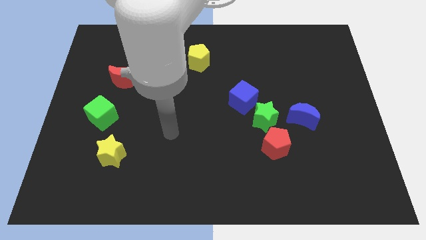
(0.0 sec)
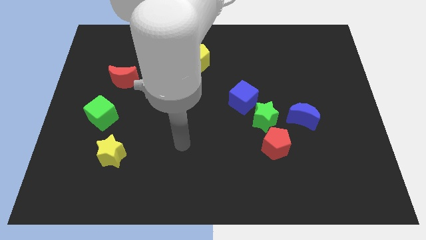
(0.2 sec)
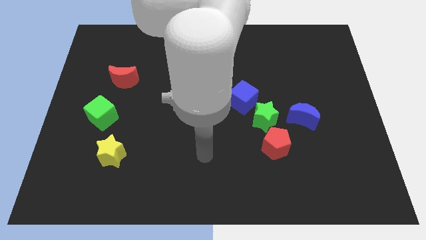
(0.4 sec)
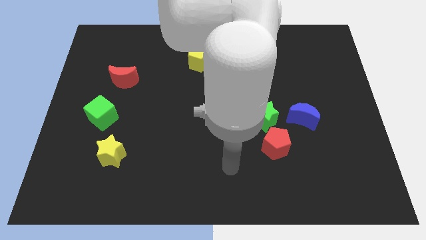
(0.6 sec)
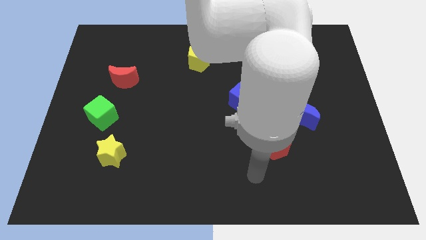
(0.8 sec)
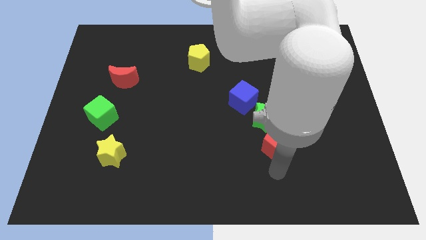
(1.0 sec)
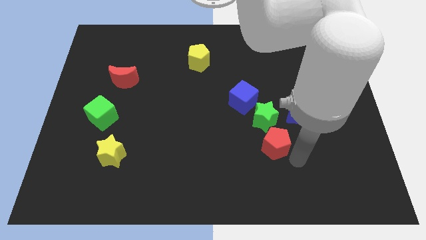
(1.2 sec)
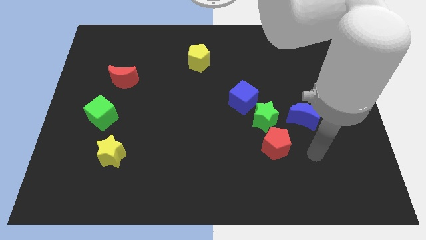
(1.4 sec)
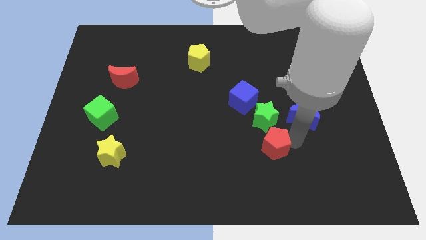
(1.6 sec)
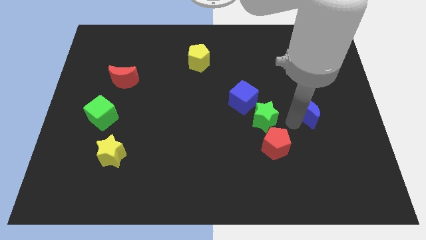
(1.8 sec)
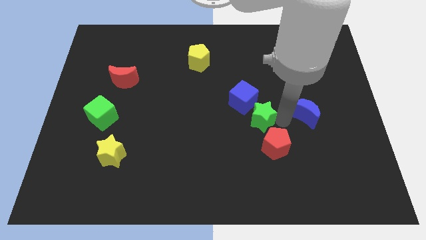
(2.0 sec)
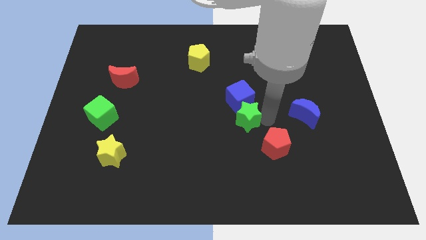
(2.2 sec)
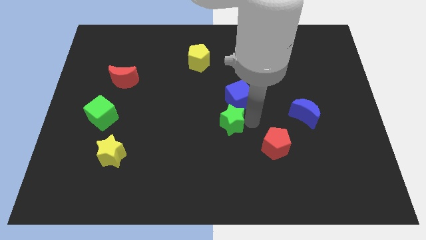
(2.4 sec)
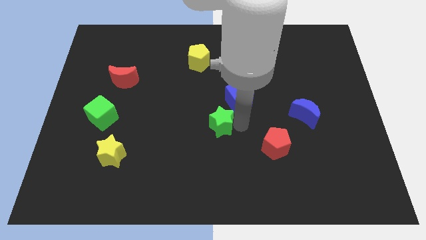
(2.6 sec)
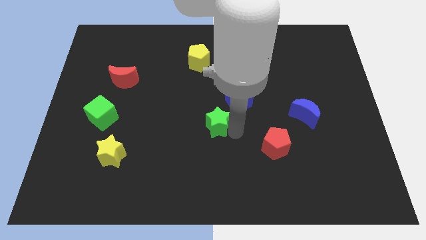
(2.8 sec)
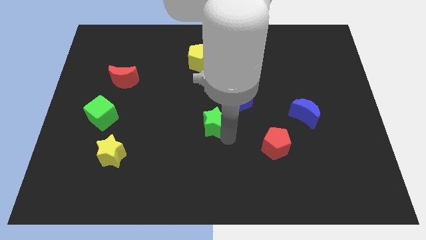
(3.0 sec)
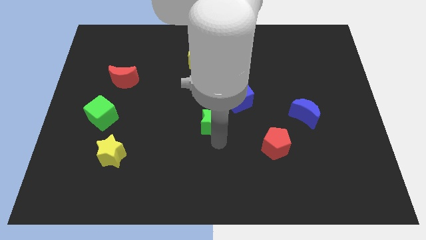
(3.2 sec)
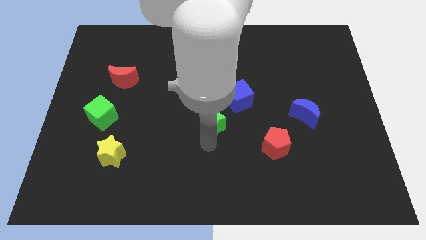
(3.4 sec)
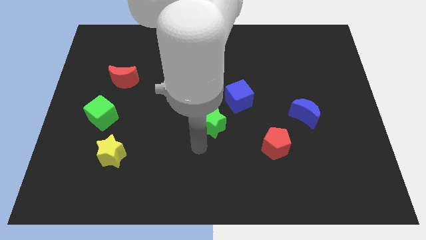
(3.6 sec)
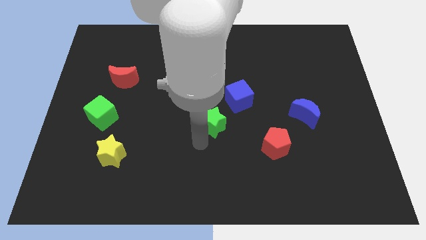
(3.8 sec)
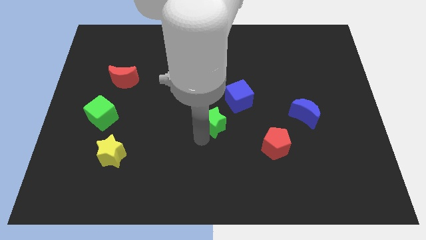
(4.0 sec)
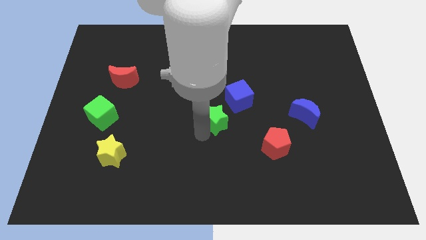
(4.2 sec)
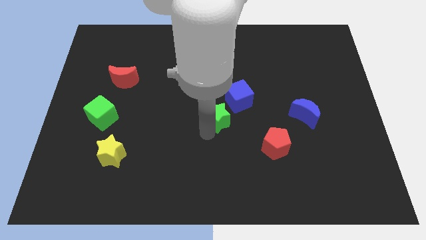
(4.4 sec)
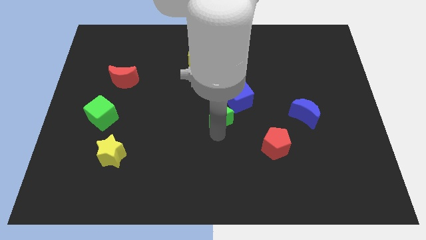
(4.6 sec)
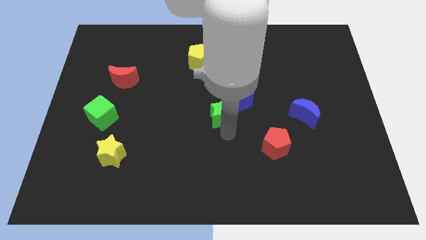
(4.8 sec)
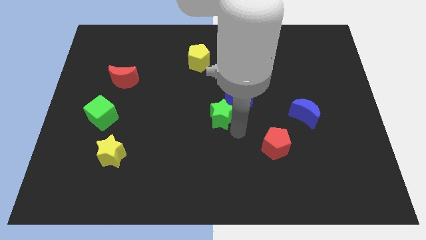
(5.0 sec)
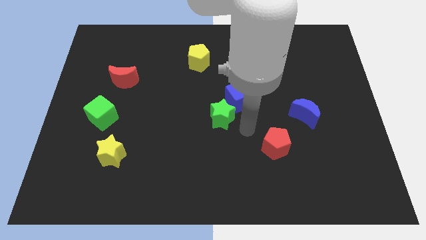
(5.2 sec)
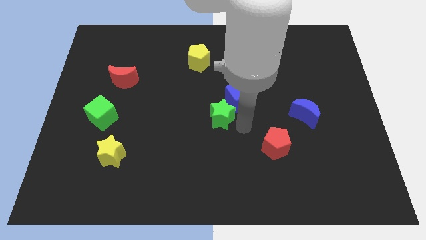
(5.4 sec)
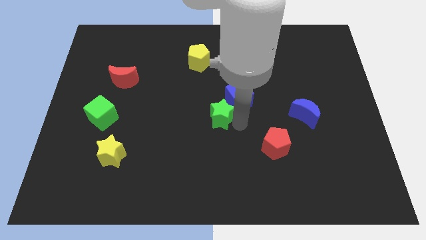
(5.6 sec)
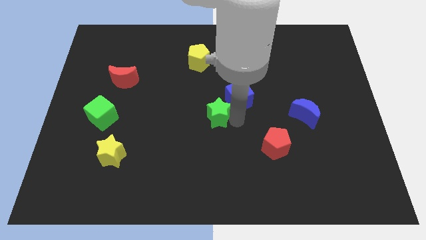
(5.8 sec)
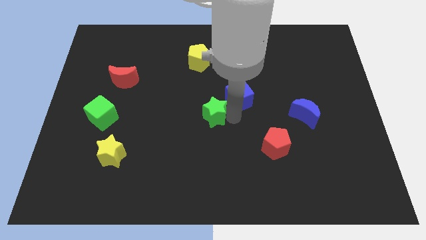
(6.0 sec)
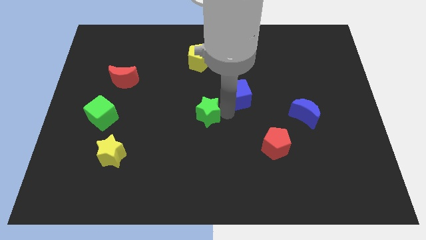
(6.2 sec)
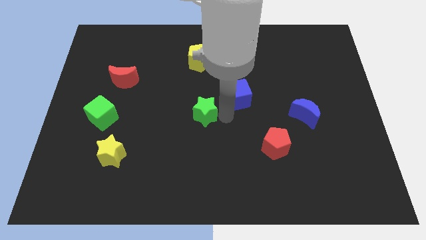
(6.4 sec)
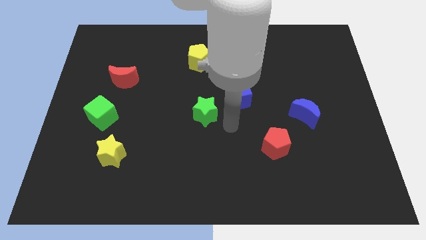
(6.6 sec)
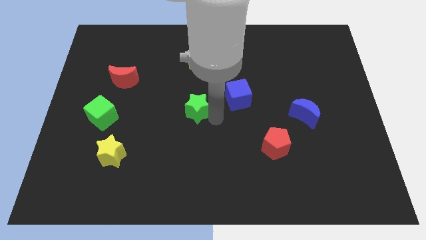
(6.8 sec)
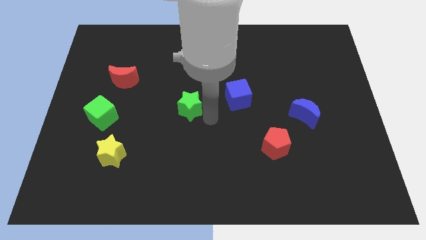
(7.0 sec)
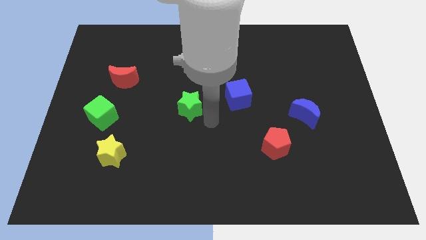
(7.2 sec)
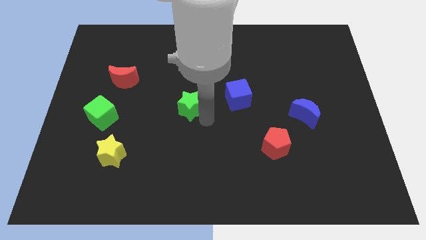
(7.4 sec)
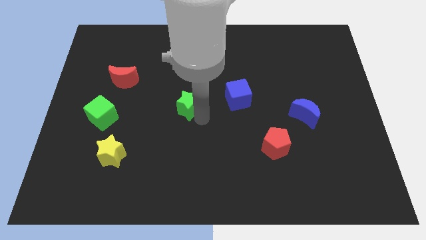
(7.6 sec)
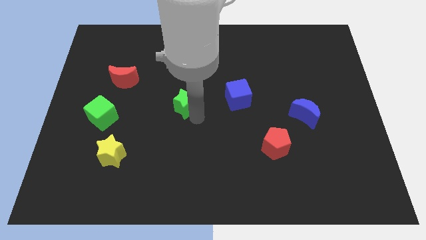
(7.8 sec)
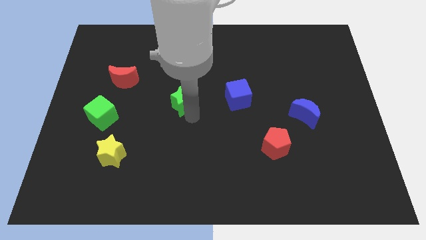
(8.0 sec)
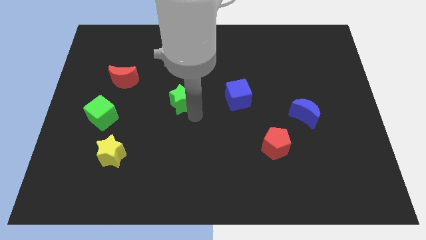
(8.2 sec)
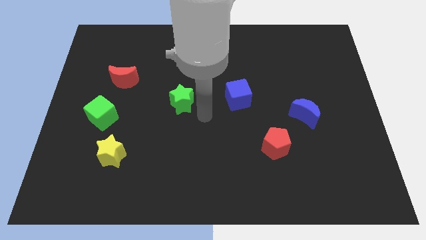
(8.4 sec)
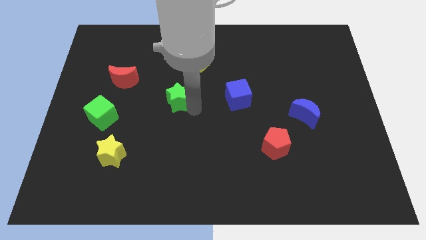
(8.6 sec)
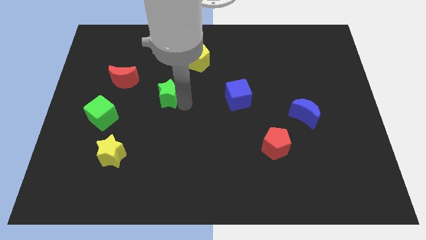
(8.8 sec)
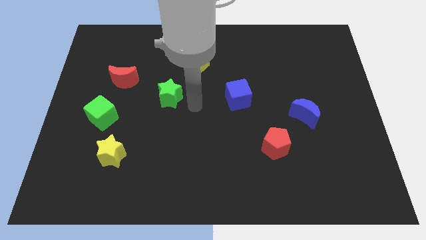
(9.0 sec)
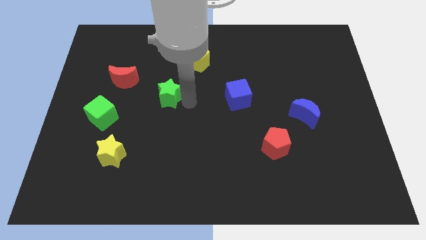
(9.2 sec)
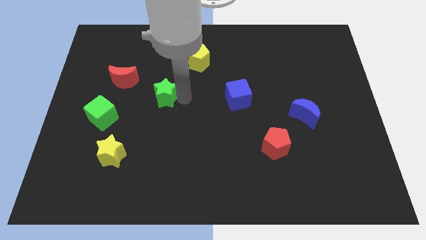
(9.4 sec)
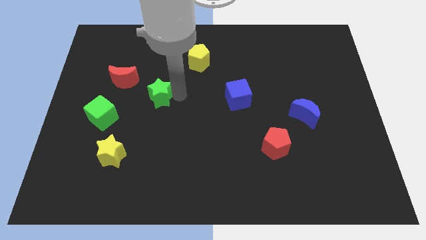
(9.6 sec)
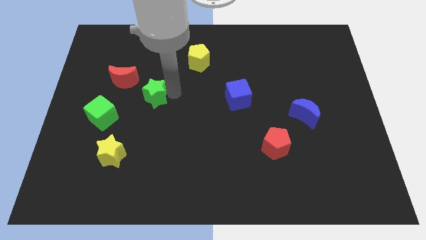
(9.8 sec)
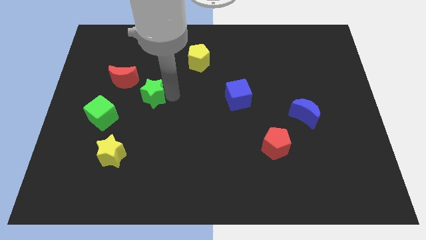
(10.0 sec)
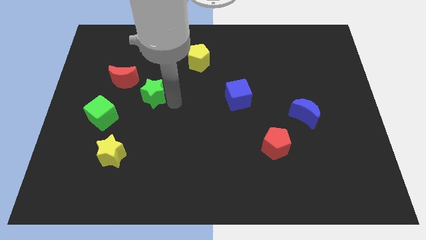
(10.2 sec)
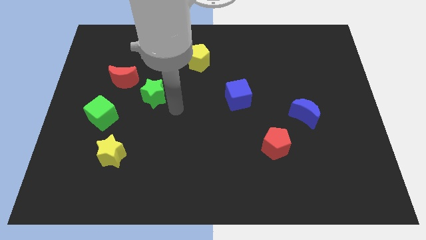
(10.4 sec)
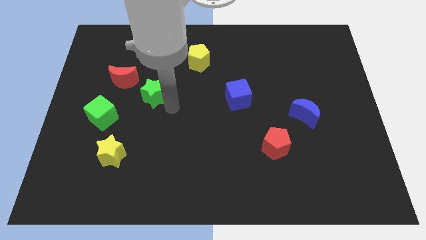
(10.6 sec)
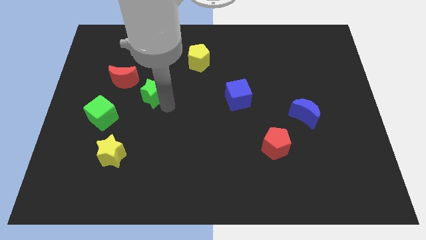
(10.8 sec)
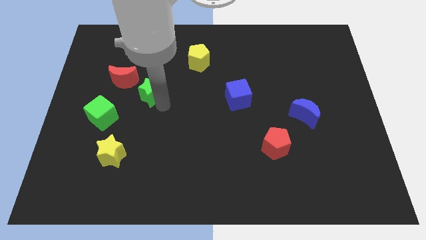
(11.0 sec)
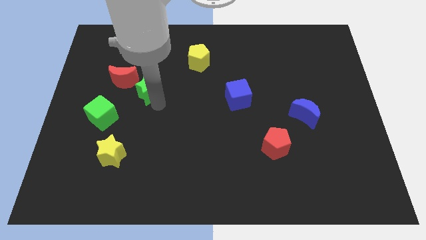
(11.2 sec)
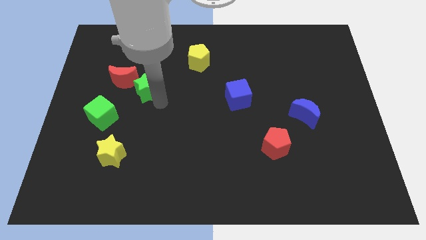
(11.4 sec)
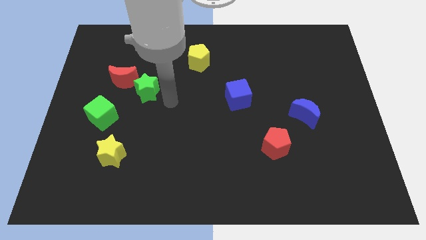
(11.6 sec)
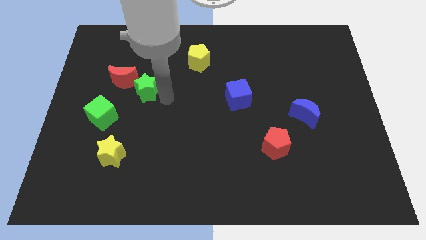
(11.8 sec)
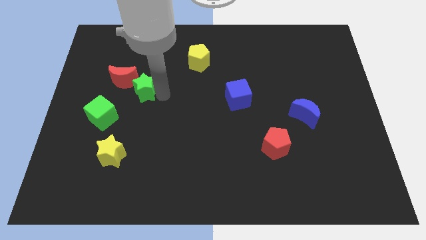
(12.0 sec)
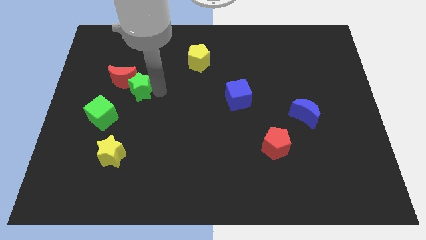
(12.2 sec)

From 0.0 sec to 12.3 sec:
move the green star towards the red moon

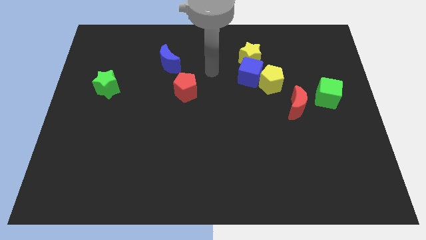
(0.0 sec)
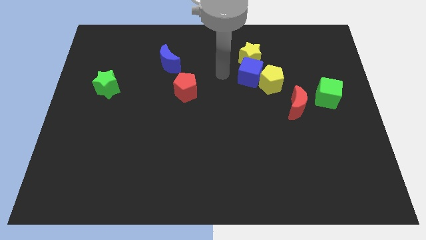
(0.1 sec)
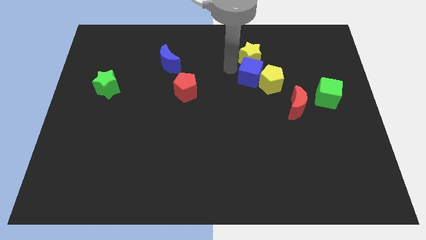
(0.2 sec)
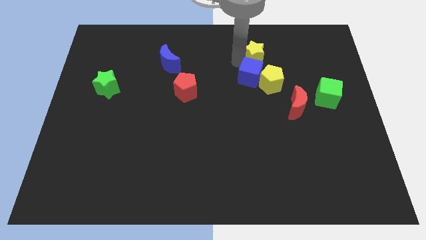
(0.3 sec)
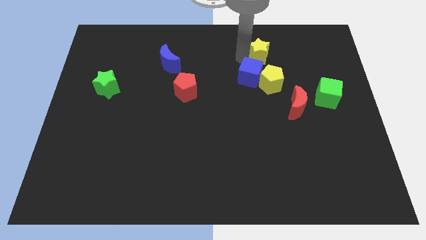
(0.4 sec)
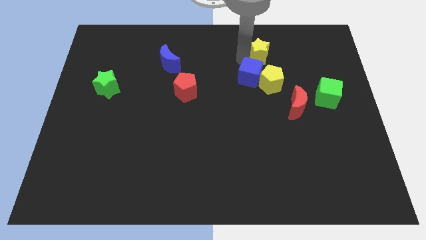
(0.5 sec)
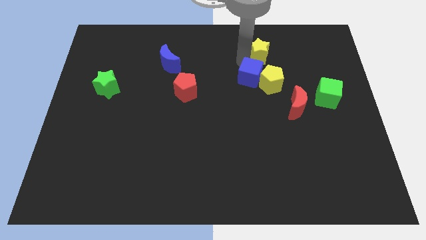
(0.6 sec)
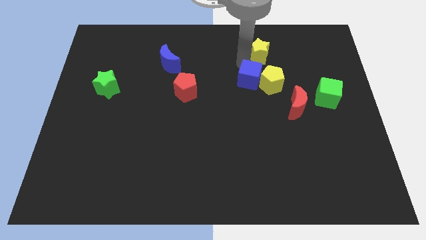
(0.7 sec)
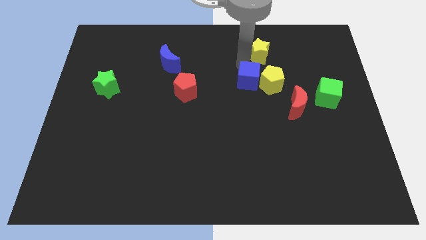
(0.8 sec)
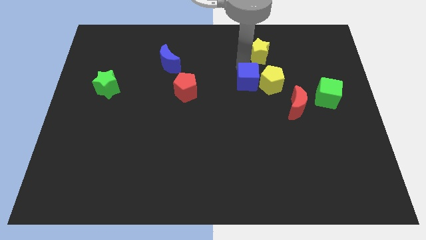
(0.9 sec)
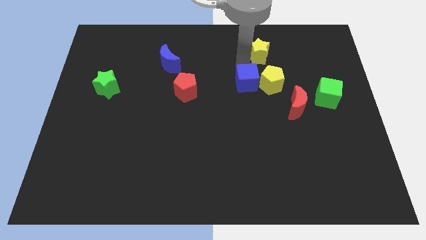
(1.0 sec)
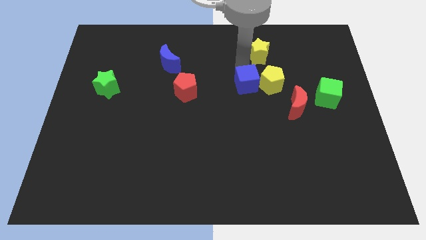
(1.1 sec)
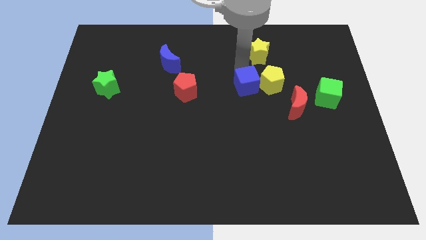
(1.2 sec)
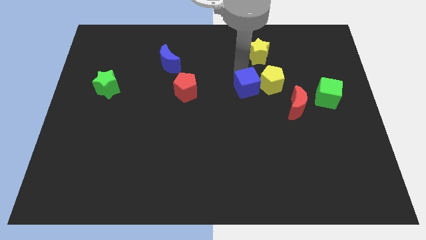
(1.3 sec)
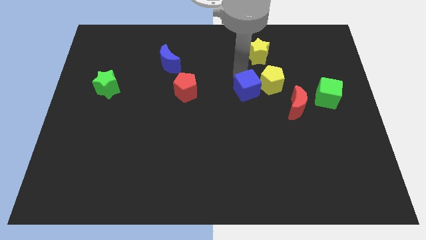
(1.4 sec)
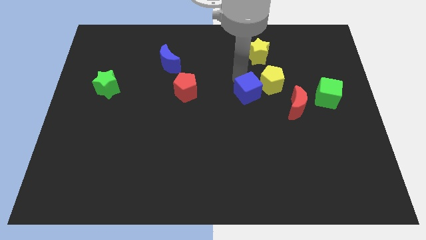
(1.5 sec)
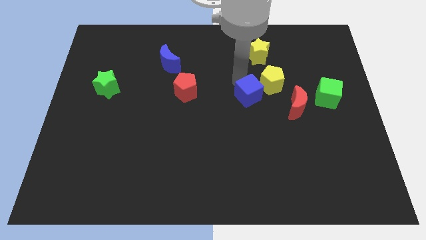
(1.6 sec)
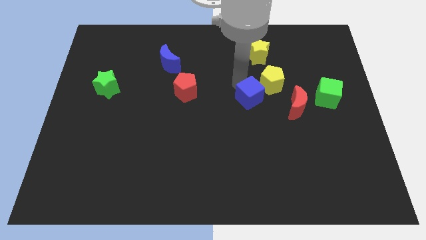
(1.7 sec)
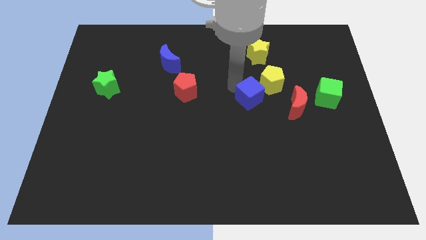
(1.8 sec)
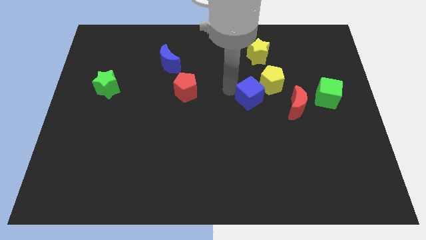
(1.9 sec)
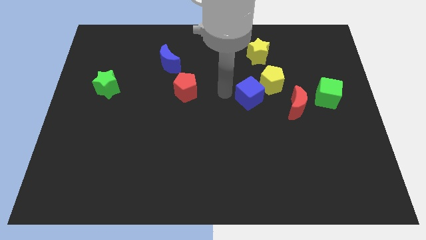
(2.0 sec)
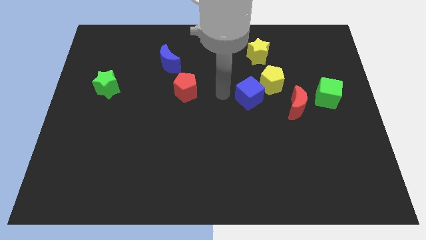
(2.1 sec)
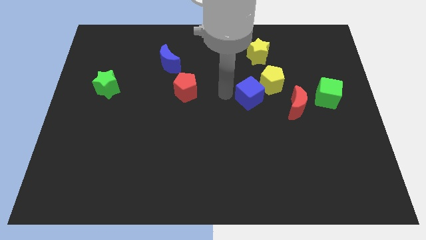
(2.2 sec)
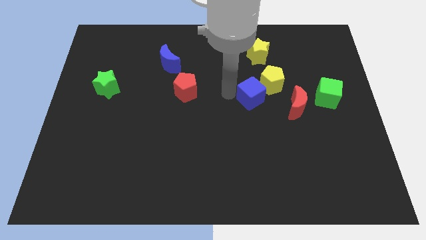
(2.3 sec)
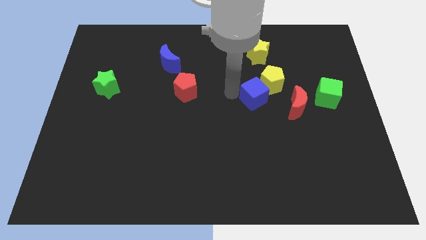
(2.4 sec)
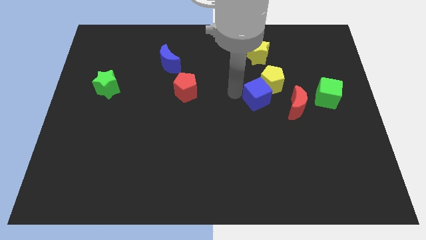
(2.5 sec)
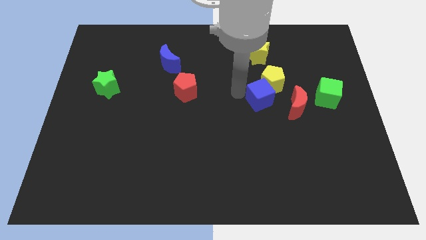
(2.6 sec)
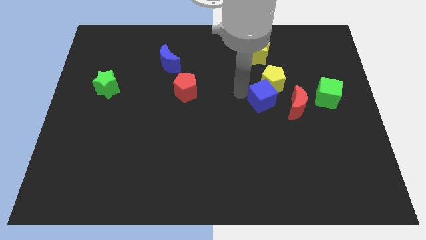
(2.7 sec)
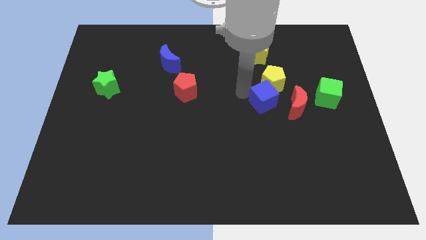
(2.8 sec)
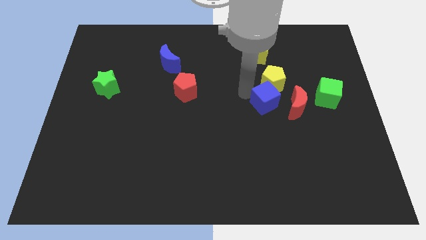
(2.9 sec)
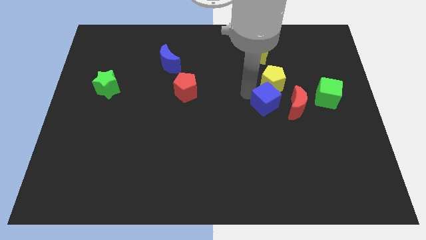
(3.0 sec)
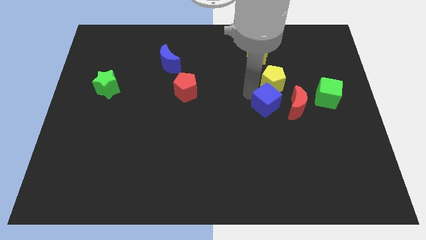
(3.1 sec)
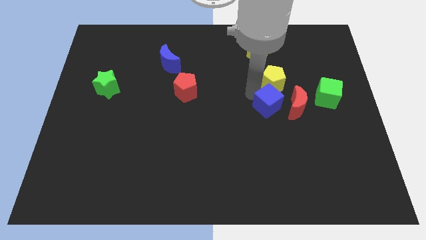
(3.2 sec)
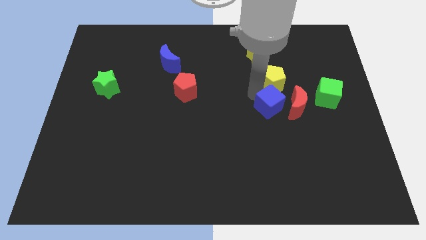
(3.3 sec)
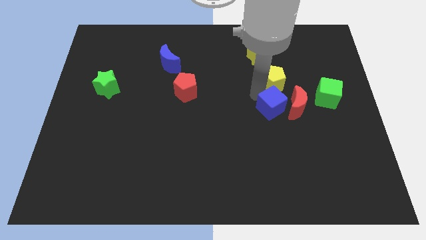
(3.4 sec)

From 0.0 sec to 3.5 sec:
put the blue cube next to the red moon
